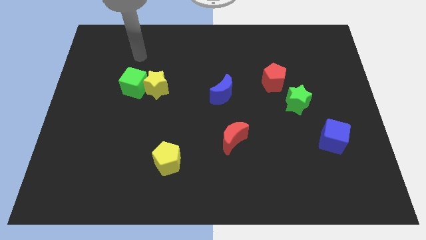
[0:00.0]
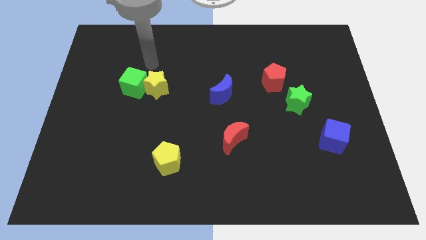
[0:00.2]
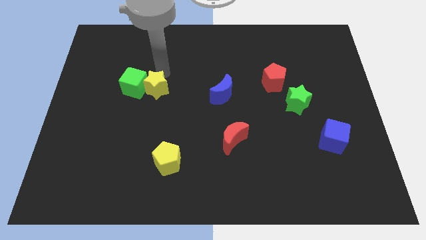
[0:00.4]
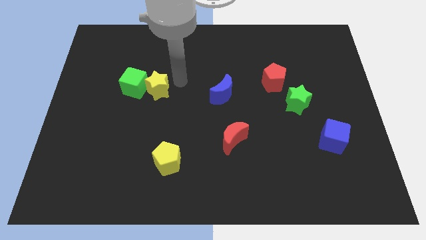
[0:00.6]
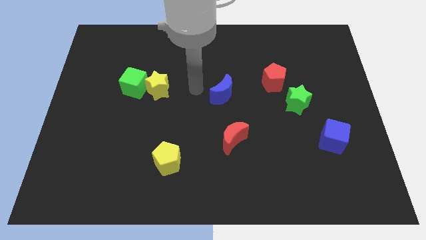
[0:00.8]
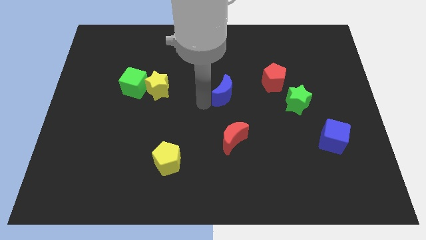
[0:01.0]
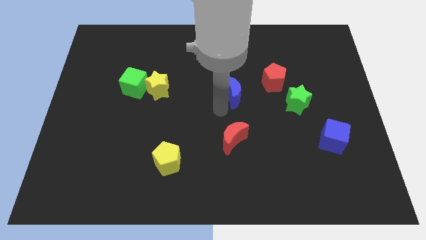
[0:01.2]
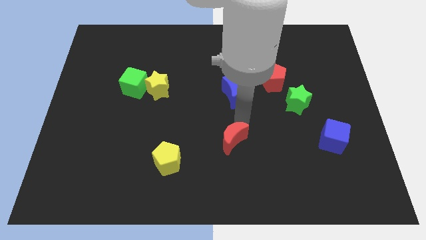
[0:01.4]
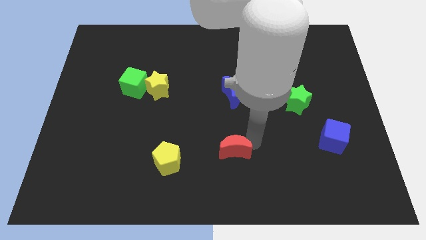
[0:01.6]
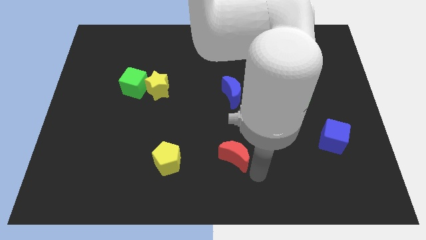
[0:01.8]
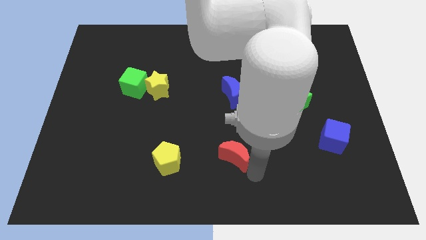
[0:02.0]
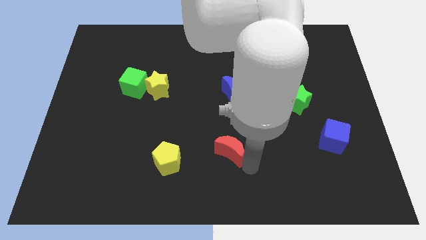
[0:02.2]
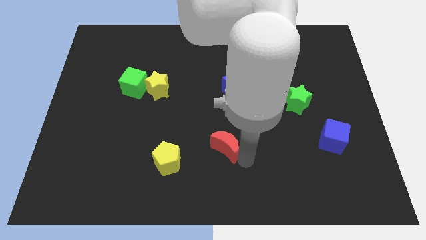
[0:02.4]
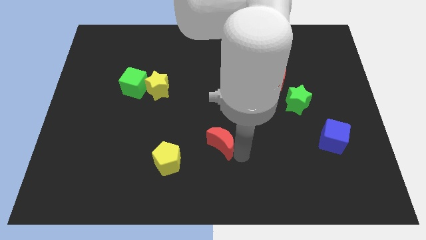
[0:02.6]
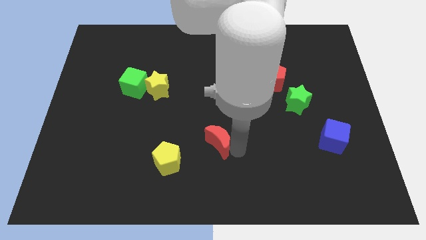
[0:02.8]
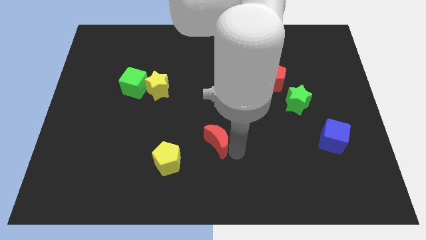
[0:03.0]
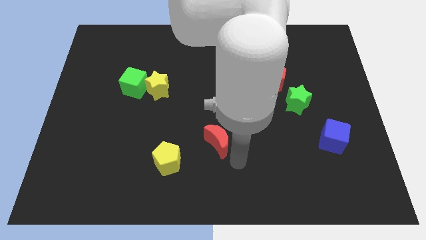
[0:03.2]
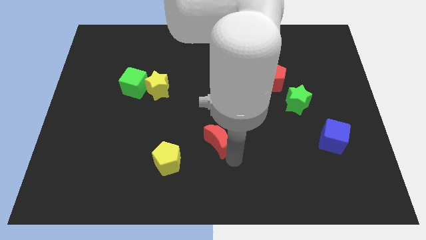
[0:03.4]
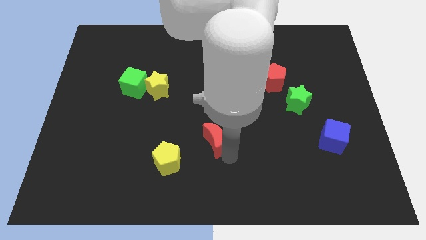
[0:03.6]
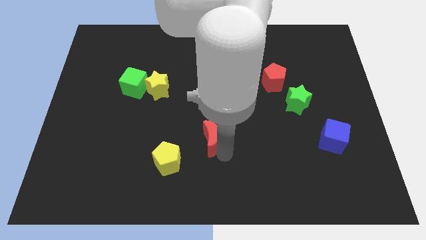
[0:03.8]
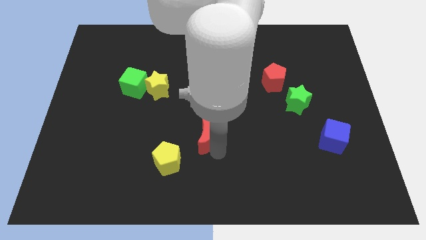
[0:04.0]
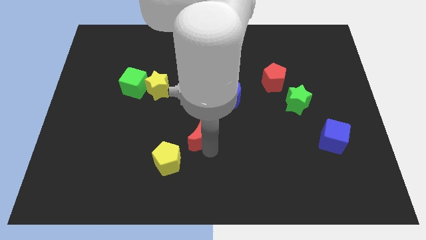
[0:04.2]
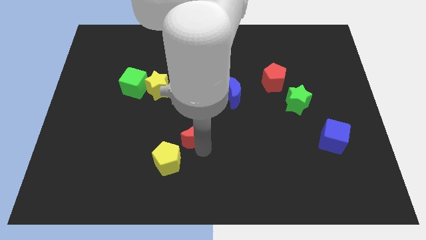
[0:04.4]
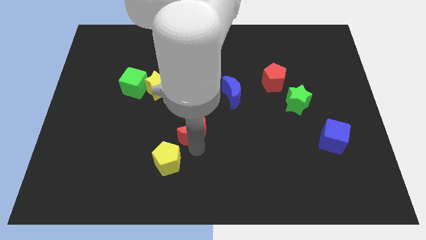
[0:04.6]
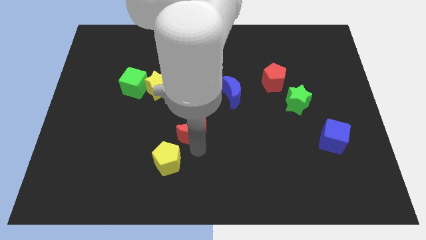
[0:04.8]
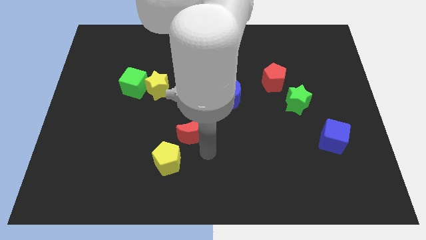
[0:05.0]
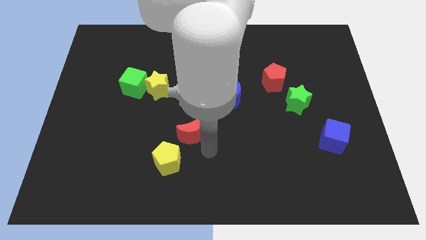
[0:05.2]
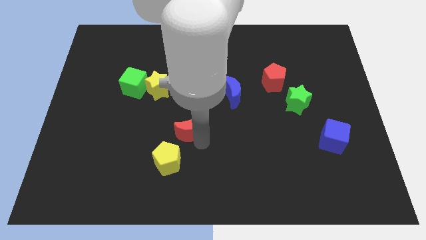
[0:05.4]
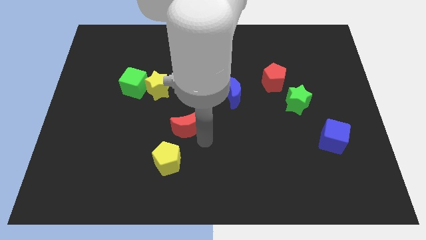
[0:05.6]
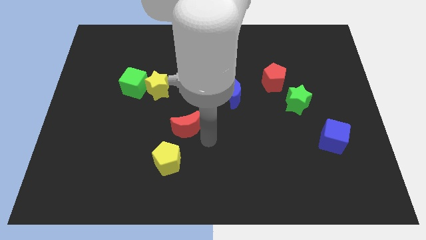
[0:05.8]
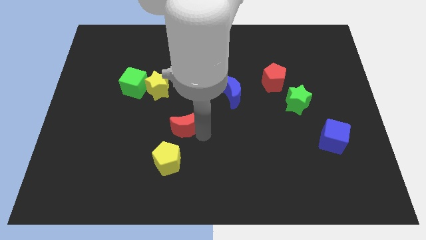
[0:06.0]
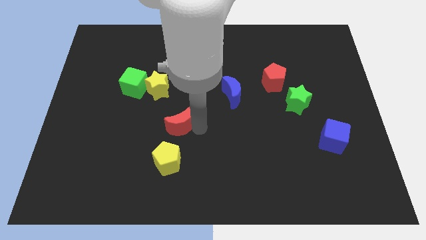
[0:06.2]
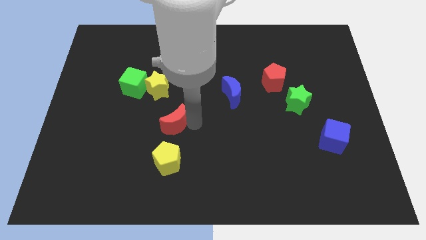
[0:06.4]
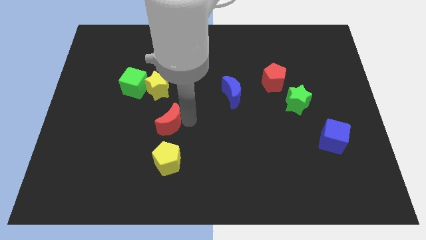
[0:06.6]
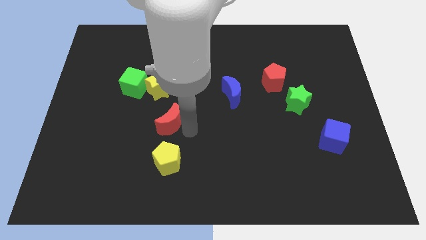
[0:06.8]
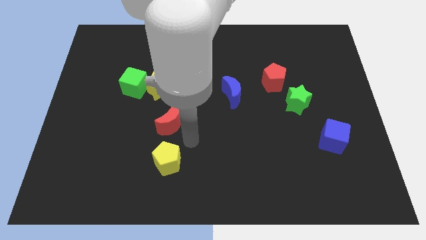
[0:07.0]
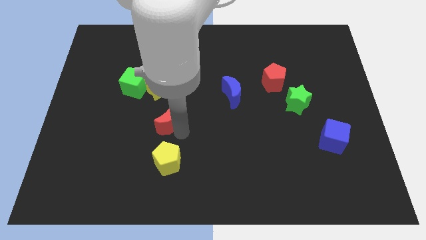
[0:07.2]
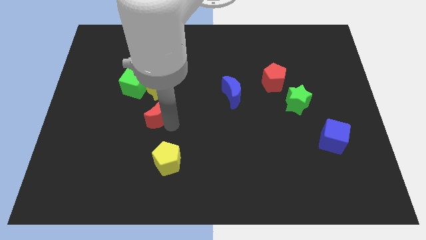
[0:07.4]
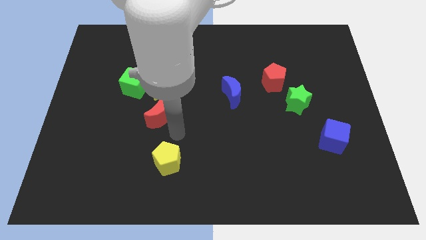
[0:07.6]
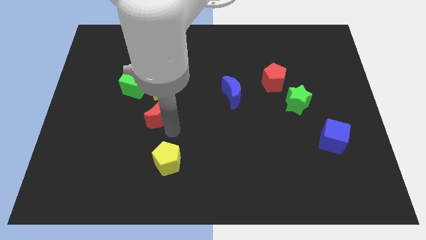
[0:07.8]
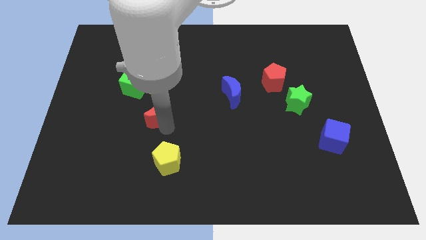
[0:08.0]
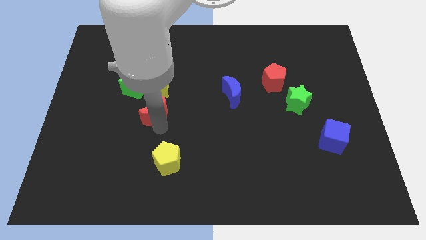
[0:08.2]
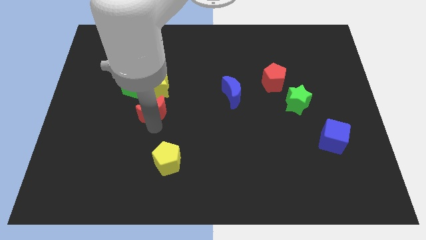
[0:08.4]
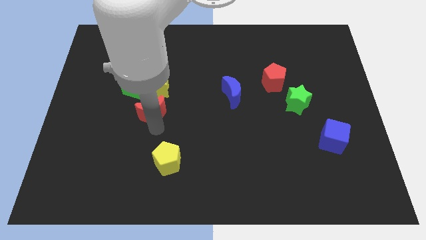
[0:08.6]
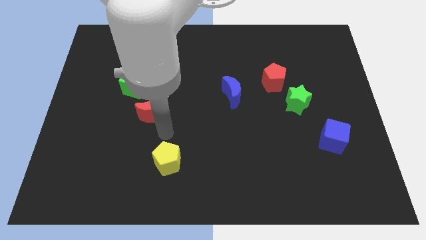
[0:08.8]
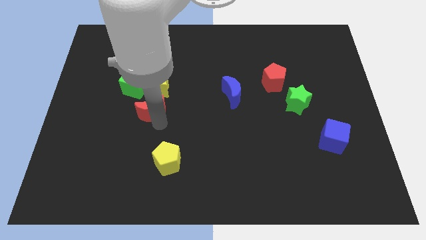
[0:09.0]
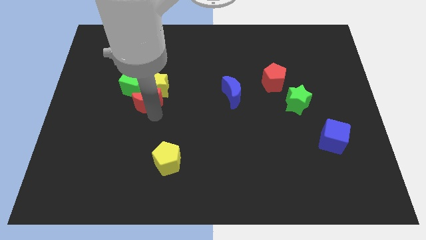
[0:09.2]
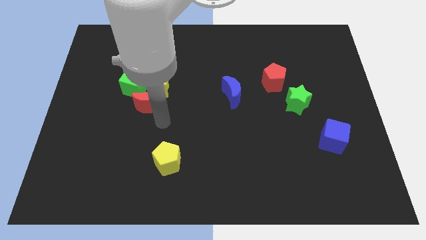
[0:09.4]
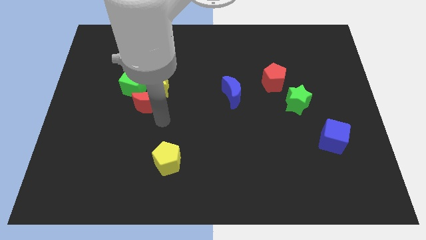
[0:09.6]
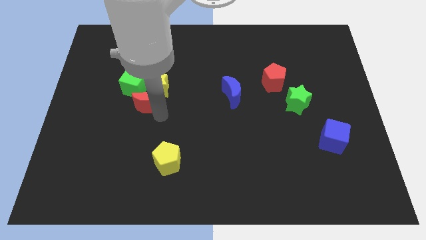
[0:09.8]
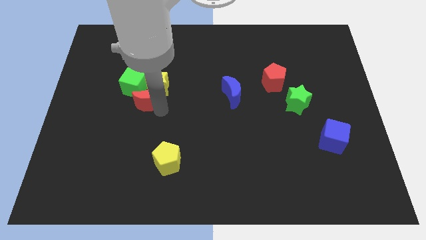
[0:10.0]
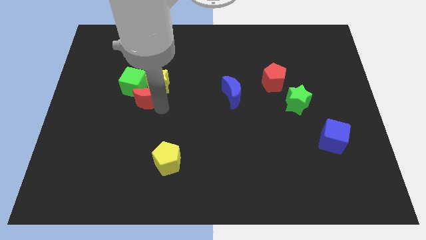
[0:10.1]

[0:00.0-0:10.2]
move the red moon close to the green cube

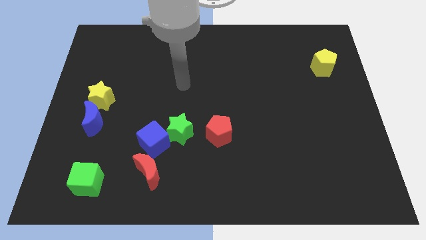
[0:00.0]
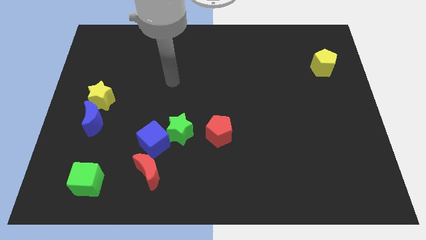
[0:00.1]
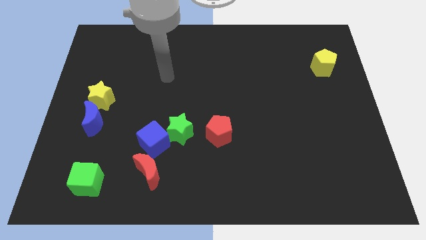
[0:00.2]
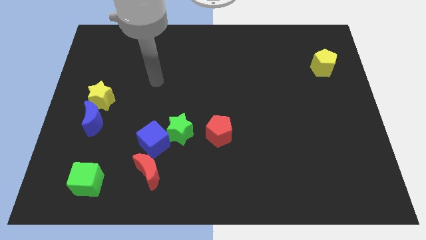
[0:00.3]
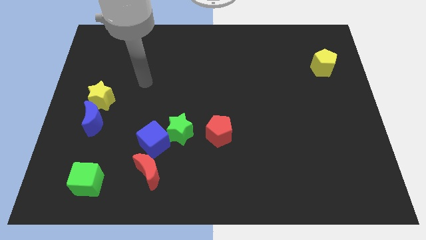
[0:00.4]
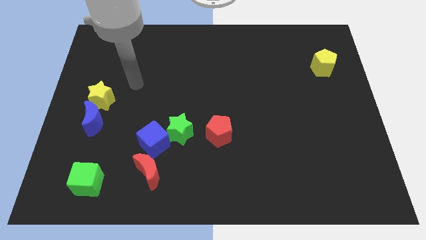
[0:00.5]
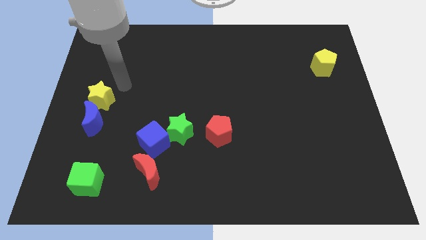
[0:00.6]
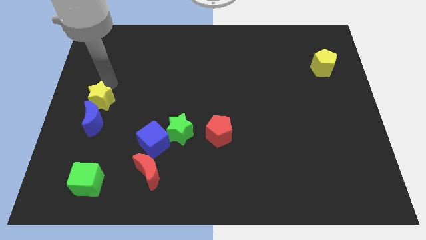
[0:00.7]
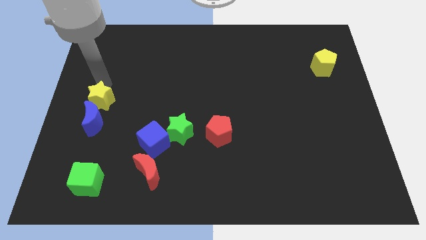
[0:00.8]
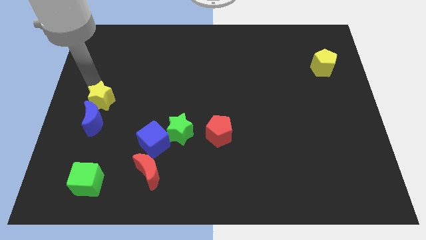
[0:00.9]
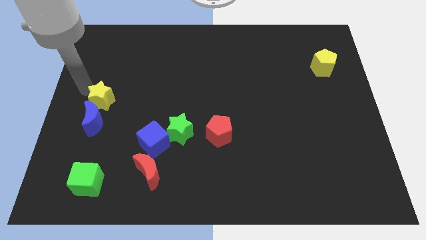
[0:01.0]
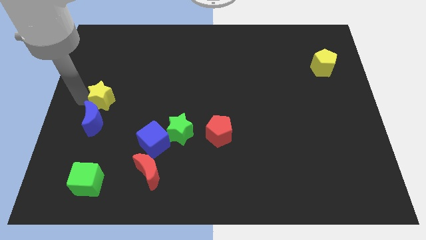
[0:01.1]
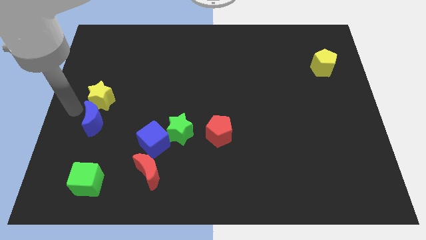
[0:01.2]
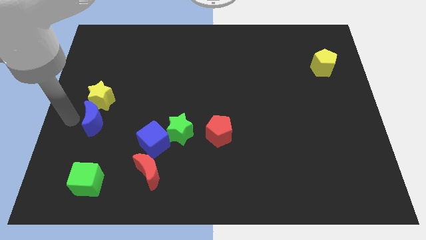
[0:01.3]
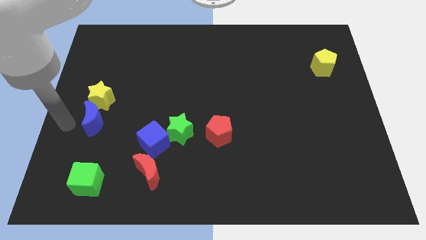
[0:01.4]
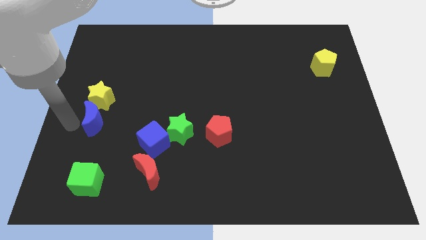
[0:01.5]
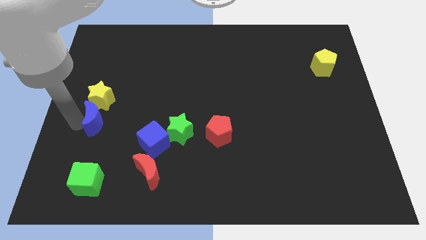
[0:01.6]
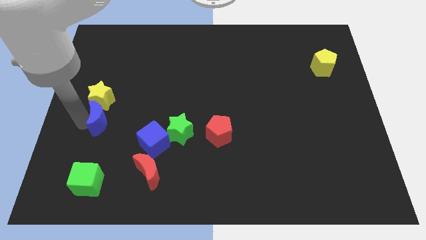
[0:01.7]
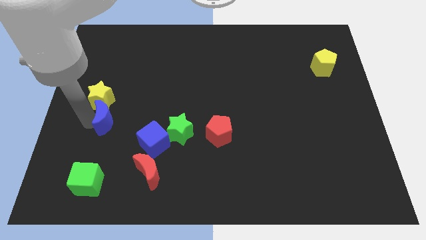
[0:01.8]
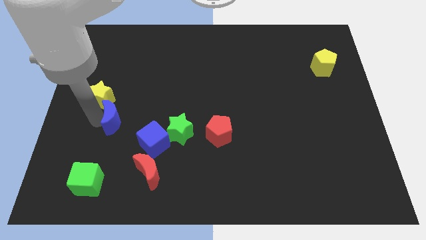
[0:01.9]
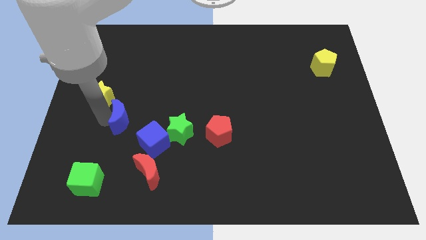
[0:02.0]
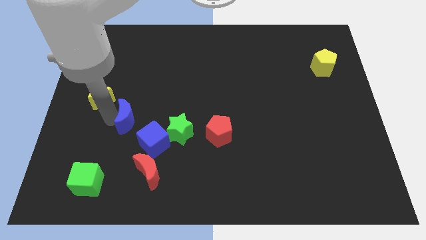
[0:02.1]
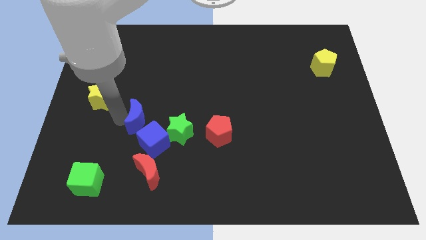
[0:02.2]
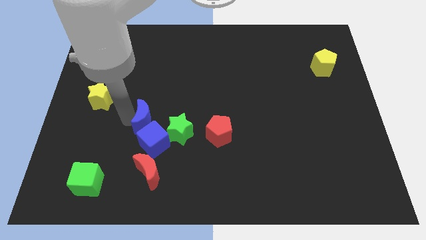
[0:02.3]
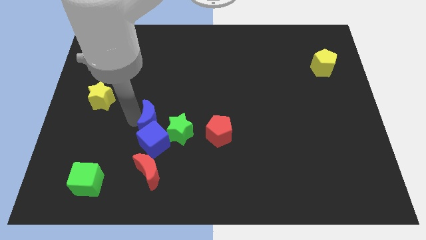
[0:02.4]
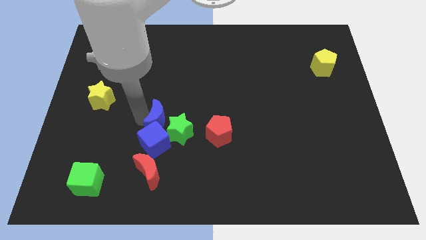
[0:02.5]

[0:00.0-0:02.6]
slide the blue moon towards the green star

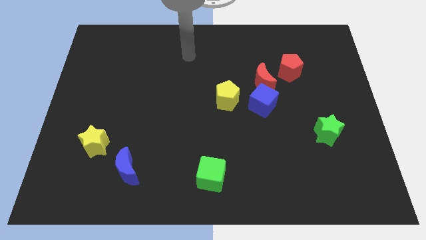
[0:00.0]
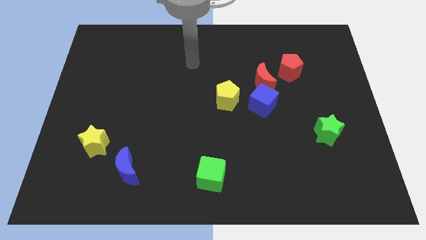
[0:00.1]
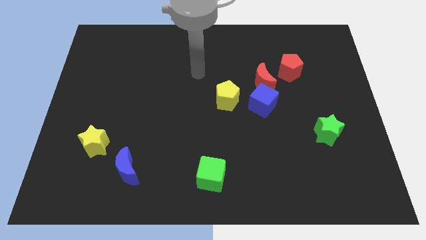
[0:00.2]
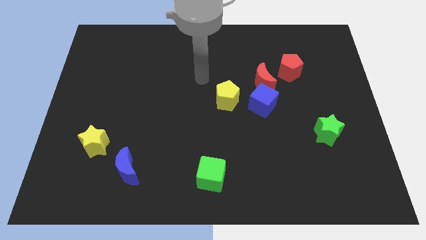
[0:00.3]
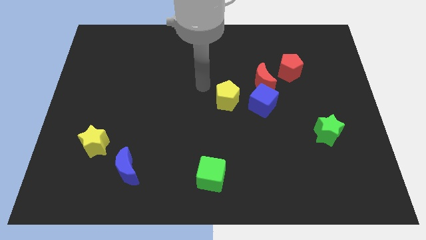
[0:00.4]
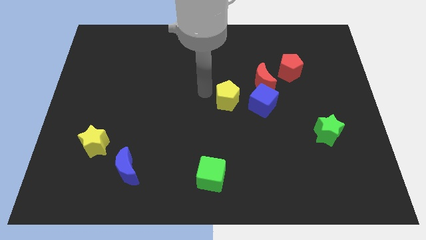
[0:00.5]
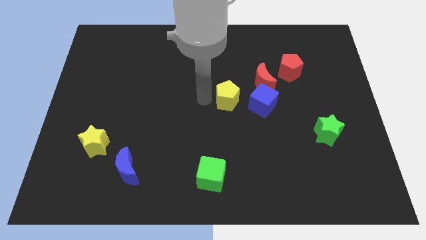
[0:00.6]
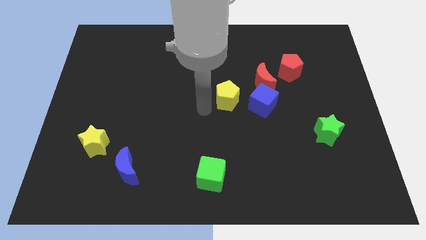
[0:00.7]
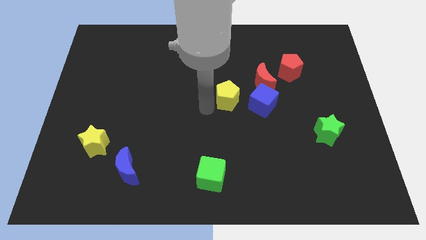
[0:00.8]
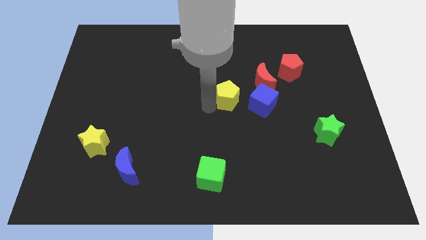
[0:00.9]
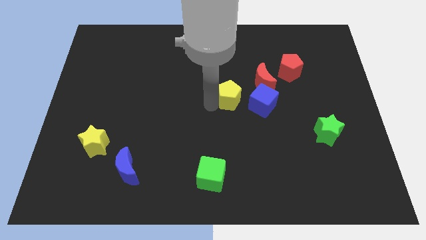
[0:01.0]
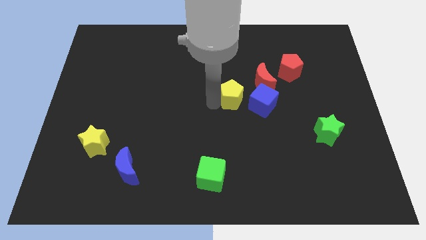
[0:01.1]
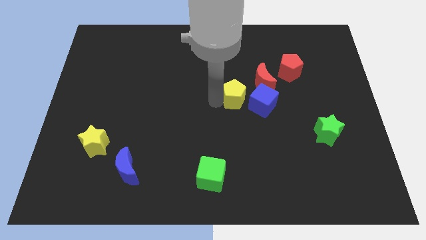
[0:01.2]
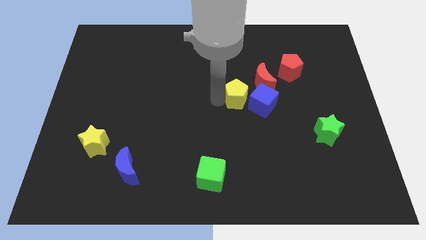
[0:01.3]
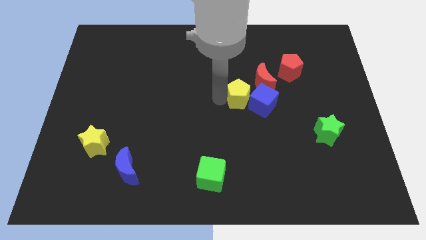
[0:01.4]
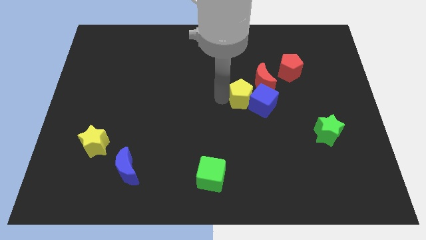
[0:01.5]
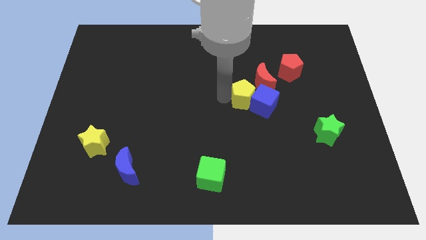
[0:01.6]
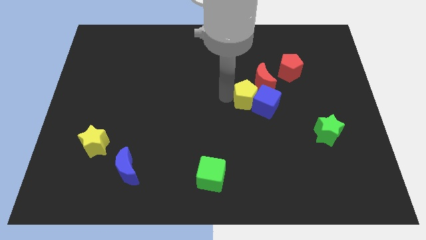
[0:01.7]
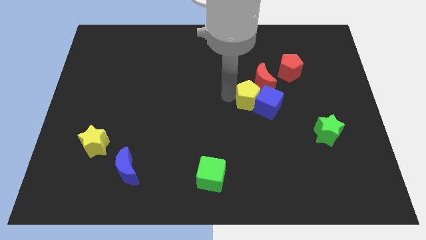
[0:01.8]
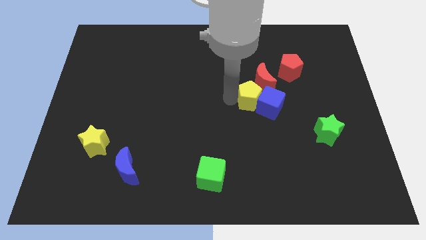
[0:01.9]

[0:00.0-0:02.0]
put the yellow pentagon next to the red moon
